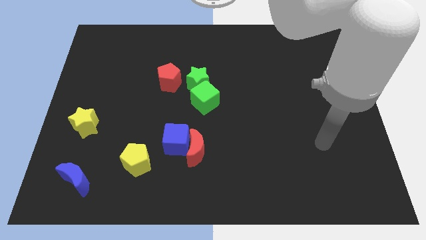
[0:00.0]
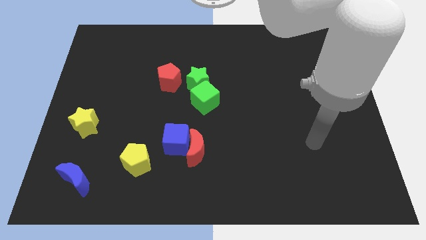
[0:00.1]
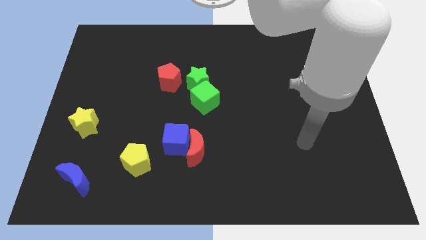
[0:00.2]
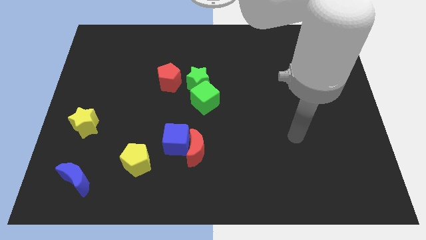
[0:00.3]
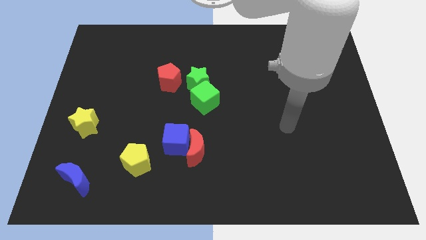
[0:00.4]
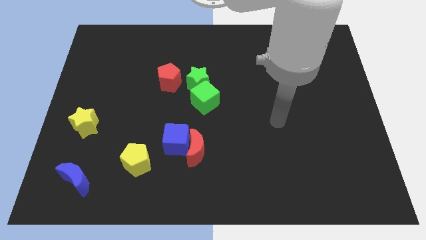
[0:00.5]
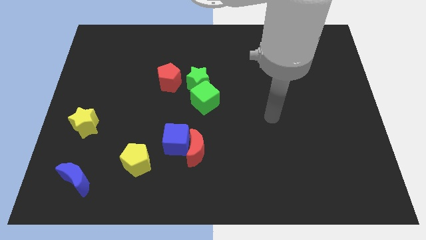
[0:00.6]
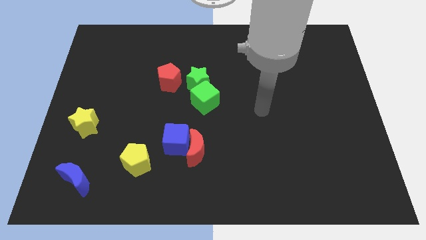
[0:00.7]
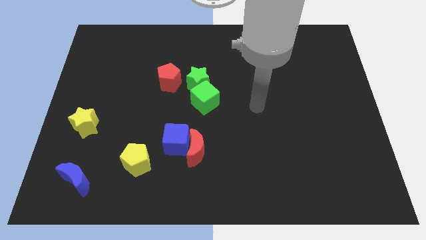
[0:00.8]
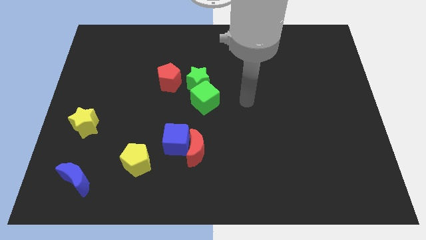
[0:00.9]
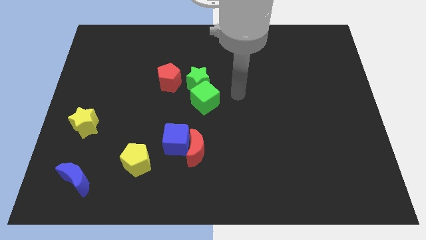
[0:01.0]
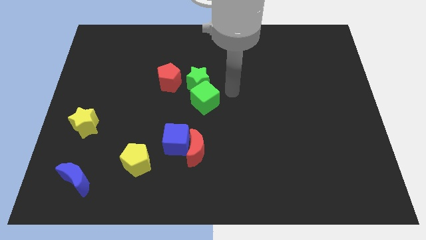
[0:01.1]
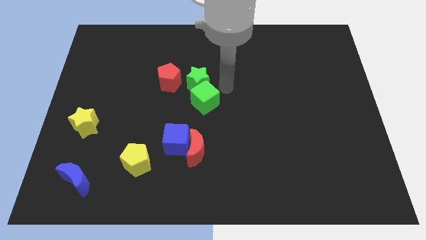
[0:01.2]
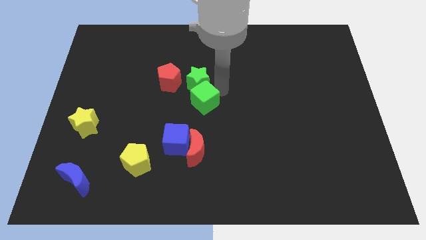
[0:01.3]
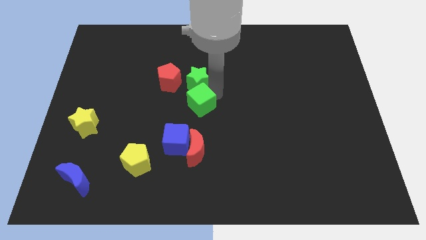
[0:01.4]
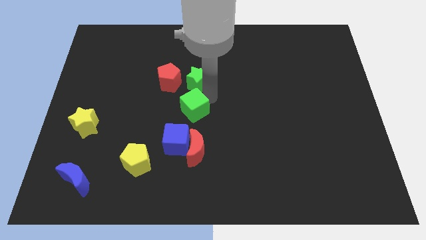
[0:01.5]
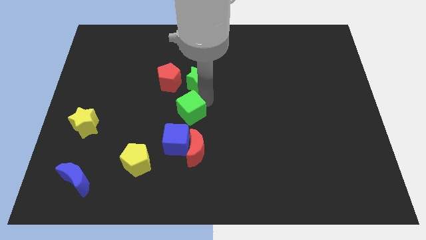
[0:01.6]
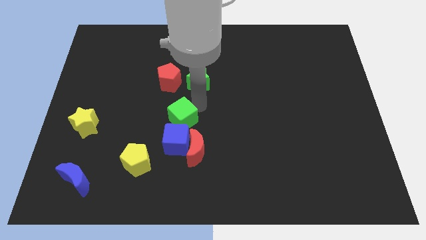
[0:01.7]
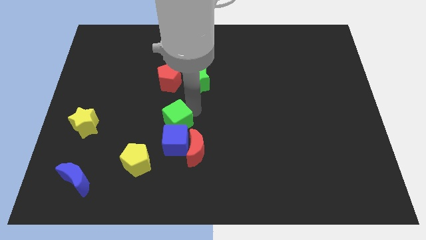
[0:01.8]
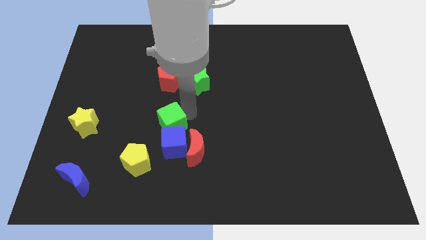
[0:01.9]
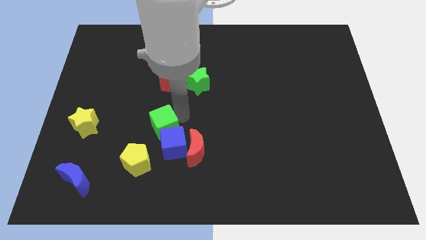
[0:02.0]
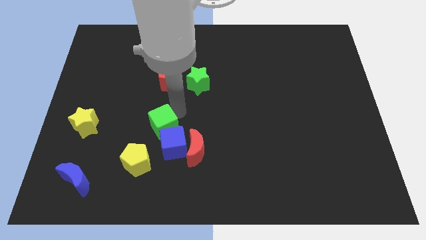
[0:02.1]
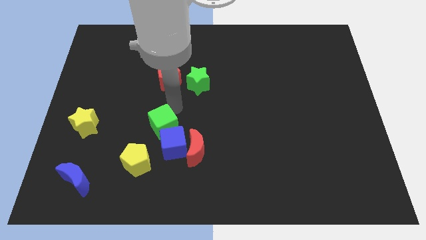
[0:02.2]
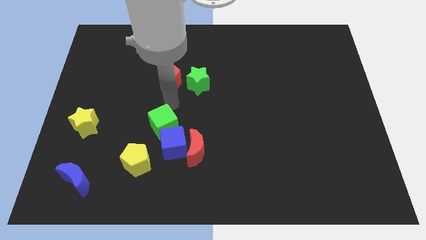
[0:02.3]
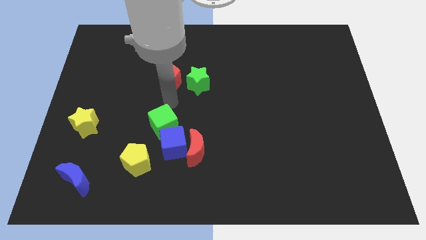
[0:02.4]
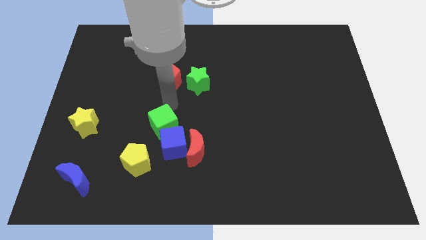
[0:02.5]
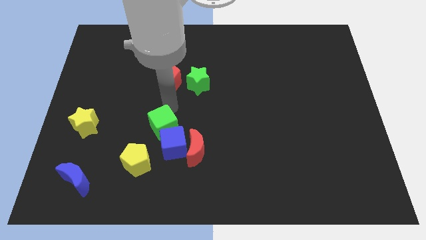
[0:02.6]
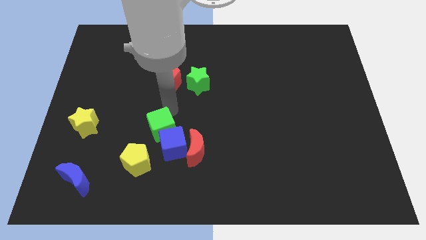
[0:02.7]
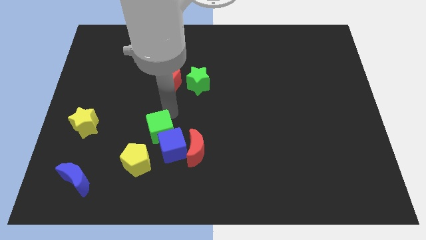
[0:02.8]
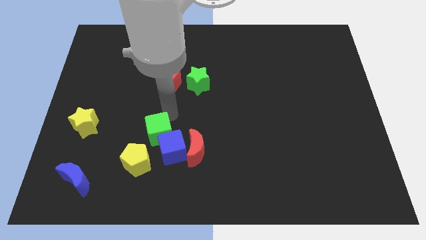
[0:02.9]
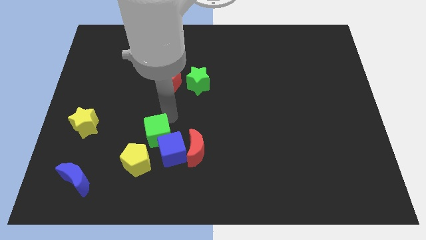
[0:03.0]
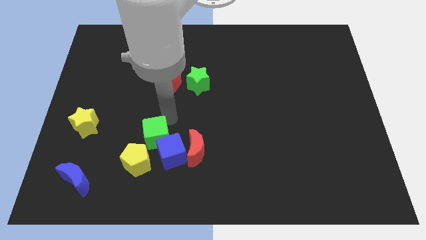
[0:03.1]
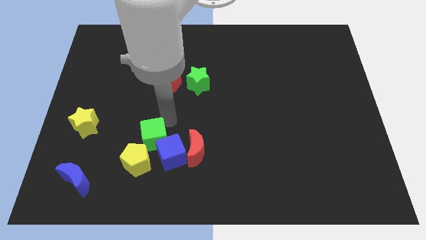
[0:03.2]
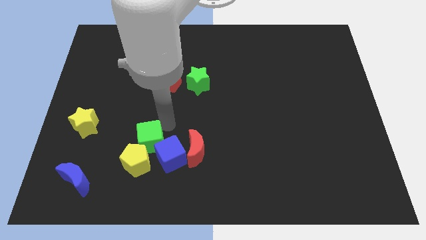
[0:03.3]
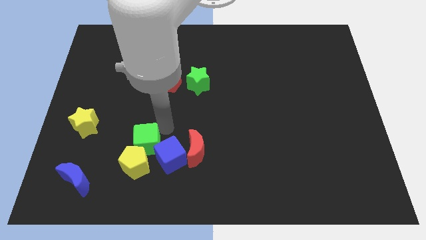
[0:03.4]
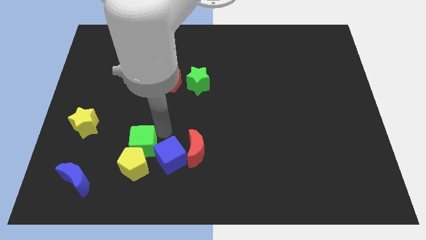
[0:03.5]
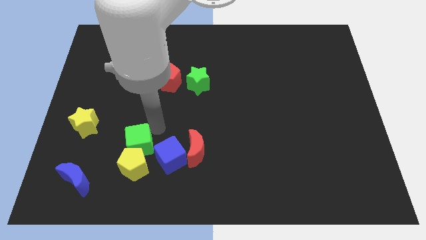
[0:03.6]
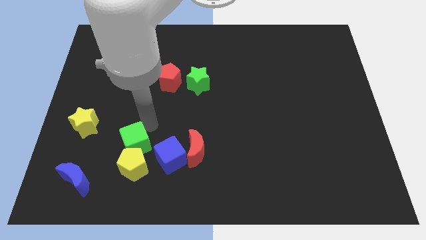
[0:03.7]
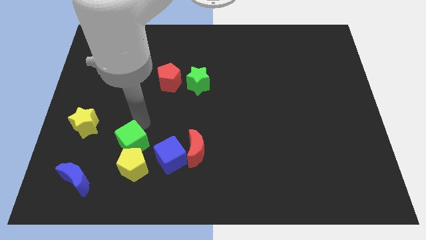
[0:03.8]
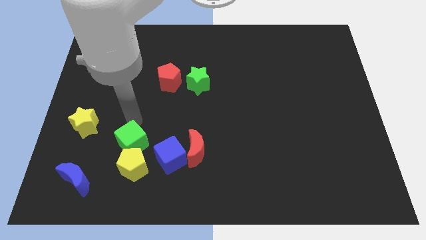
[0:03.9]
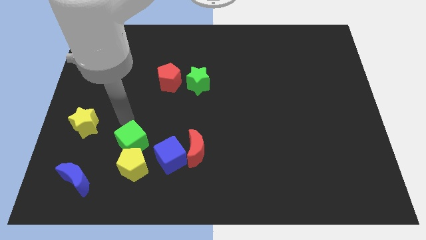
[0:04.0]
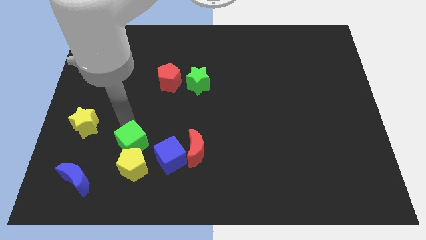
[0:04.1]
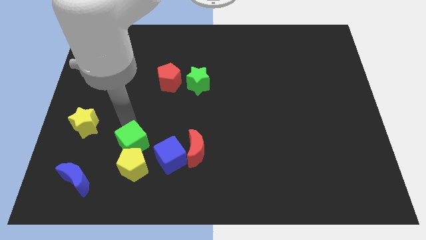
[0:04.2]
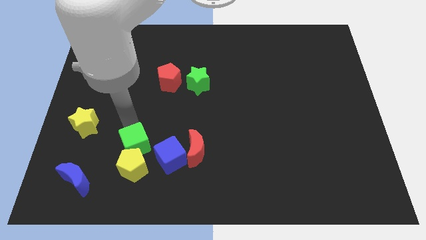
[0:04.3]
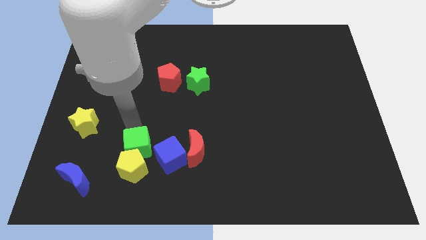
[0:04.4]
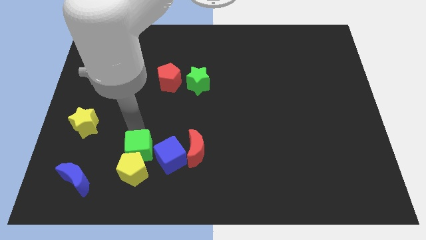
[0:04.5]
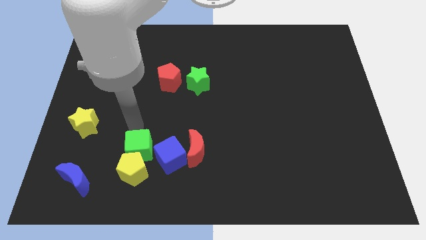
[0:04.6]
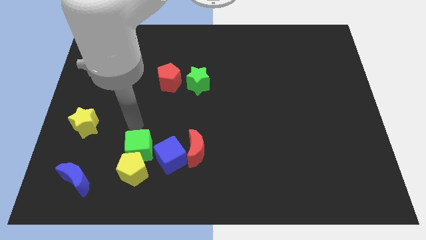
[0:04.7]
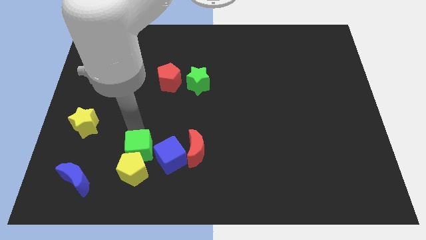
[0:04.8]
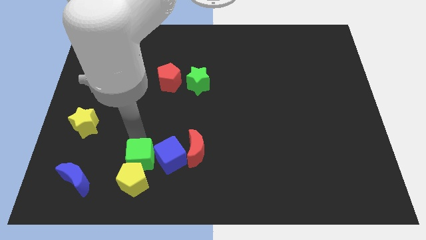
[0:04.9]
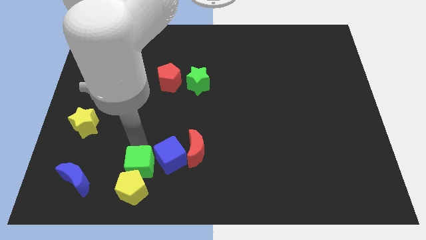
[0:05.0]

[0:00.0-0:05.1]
slide the green cube right of the blue moon

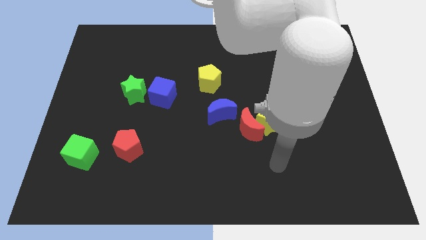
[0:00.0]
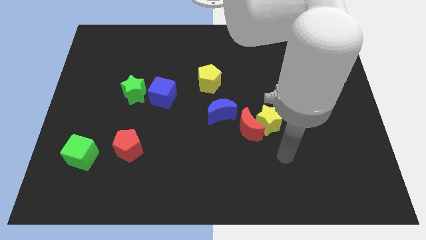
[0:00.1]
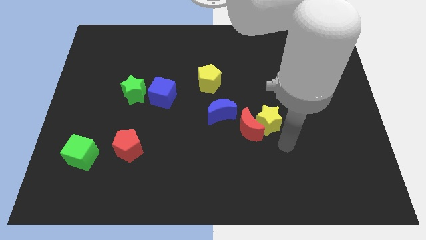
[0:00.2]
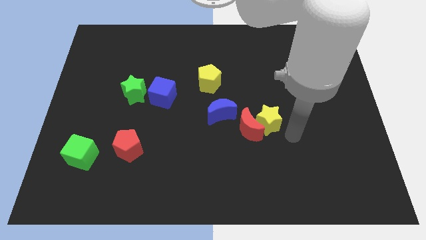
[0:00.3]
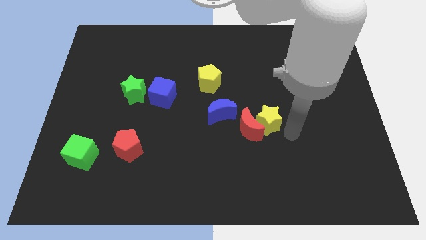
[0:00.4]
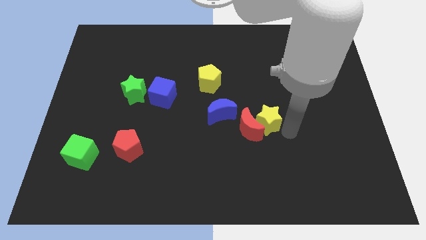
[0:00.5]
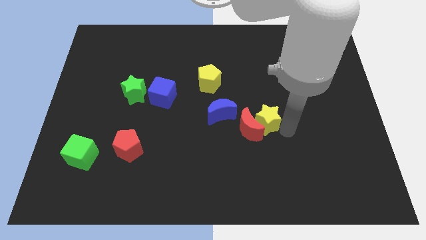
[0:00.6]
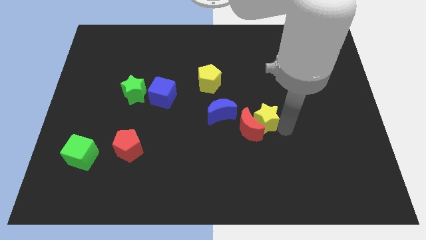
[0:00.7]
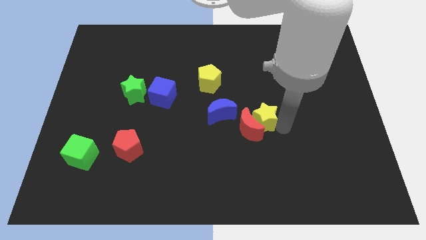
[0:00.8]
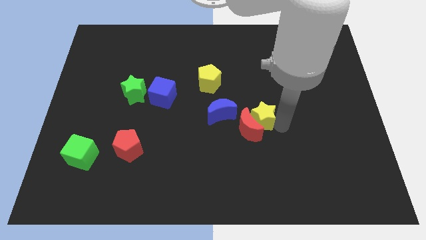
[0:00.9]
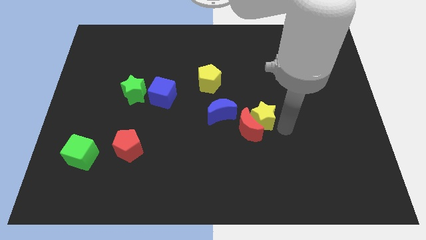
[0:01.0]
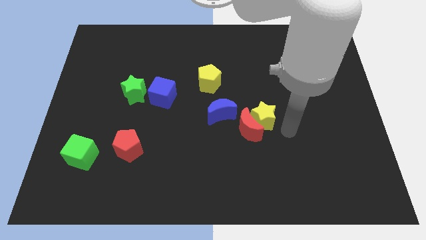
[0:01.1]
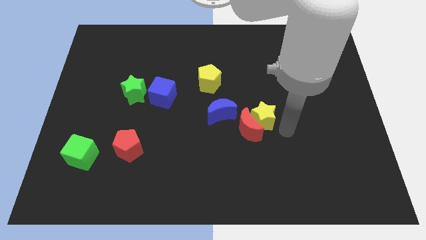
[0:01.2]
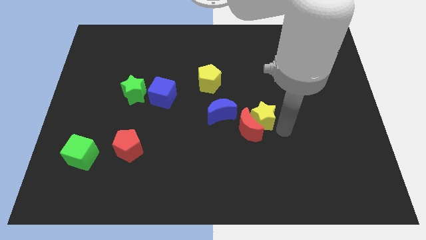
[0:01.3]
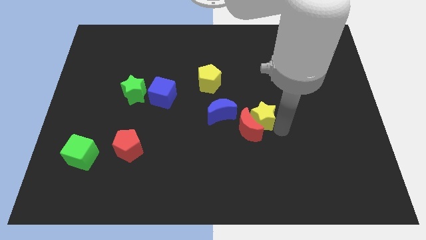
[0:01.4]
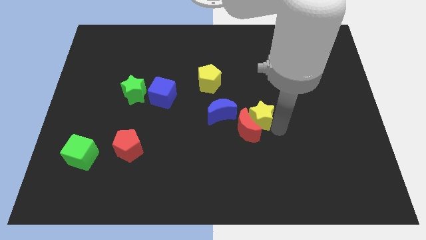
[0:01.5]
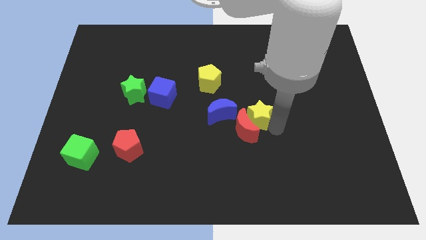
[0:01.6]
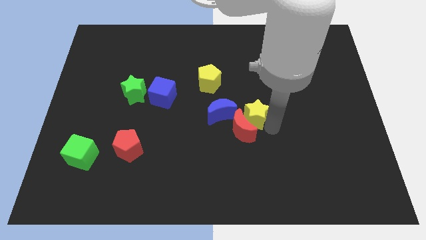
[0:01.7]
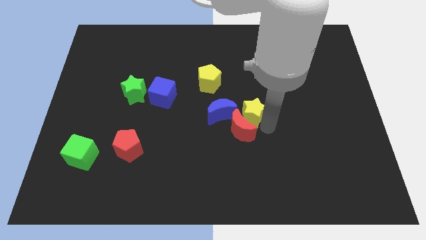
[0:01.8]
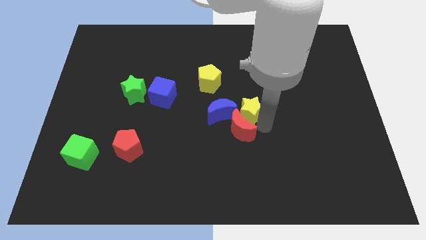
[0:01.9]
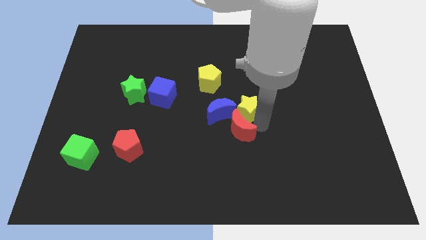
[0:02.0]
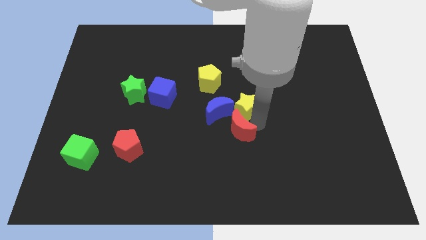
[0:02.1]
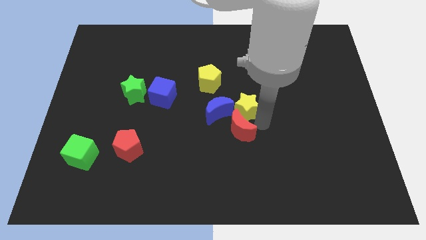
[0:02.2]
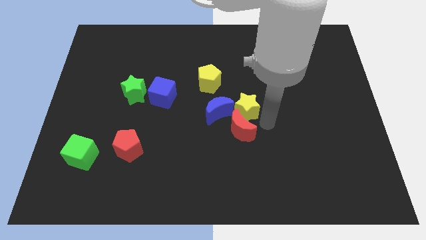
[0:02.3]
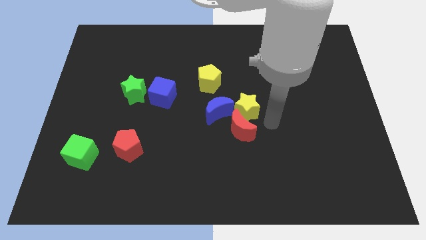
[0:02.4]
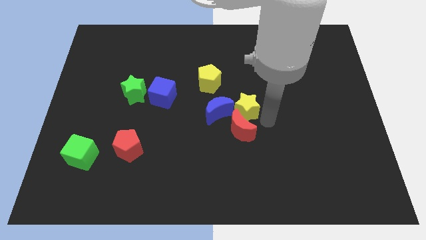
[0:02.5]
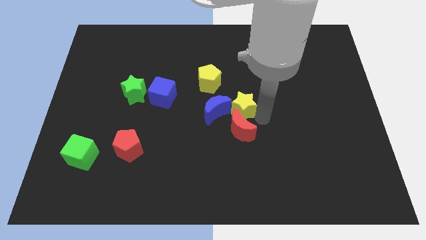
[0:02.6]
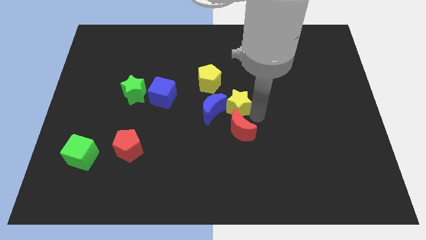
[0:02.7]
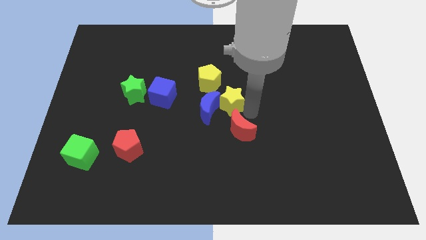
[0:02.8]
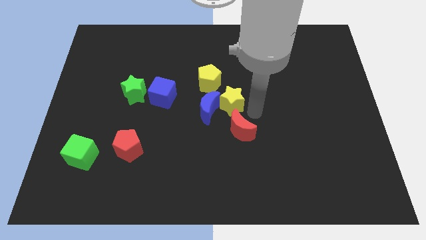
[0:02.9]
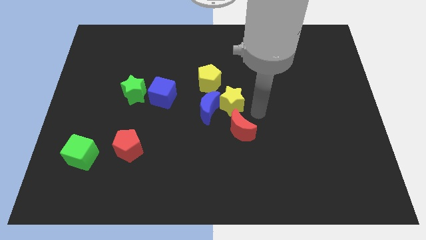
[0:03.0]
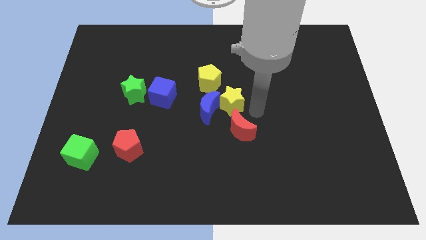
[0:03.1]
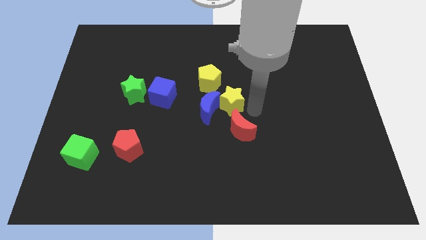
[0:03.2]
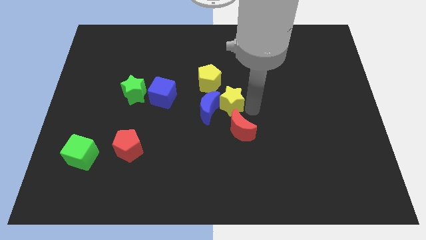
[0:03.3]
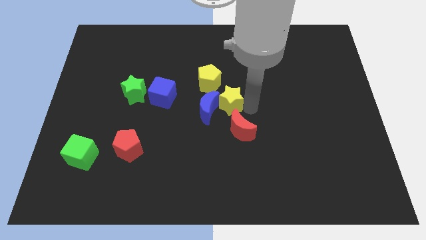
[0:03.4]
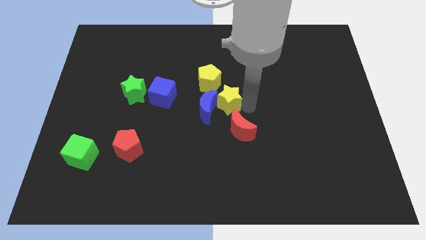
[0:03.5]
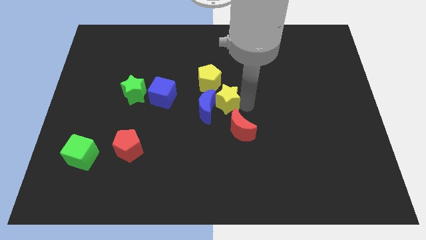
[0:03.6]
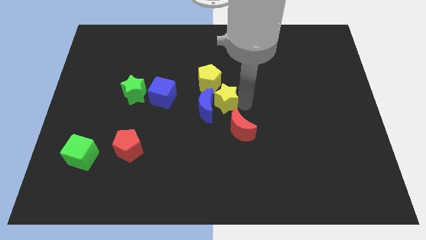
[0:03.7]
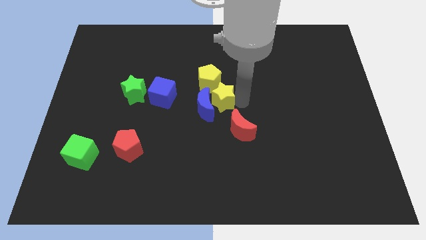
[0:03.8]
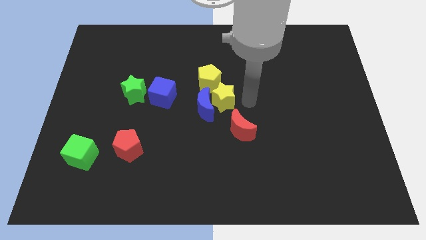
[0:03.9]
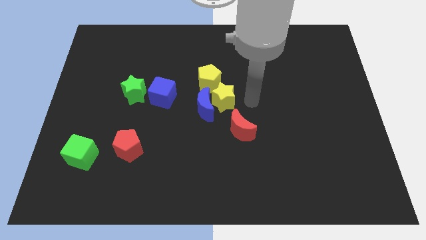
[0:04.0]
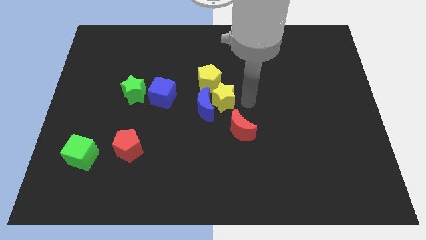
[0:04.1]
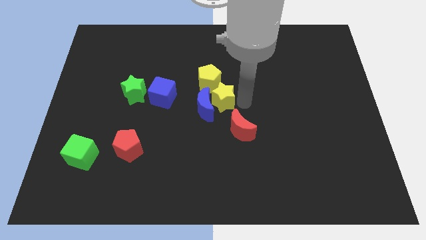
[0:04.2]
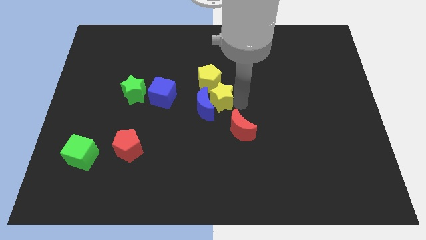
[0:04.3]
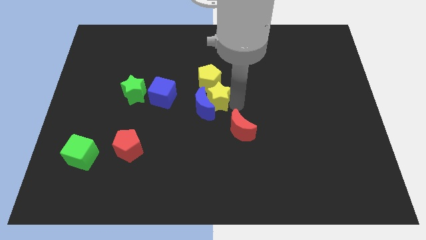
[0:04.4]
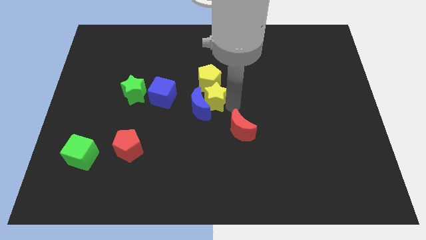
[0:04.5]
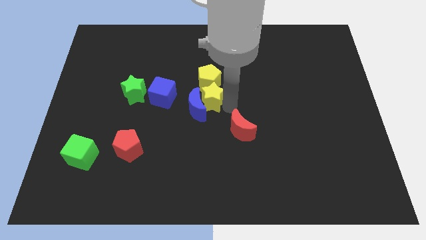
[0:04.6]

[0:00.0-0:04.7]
move the yellow star to the bottom left side of the yellow pentagon
